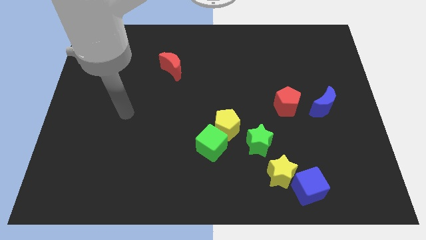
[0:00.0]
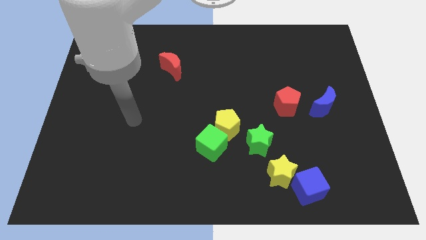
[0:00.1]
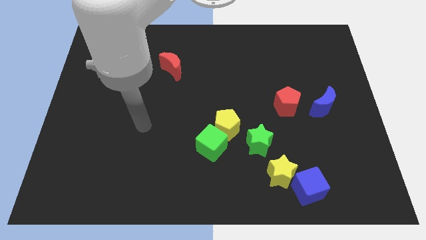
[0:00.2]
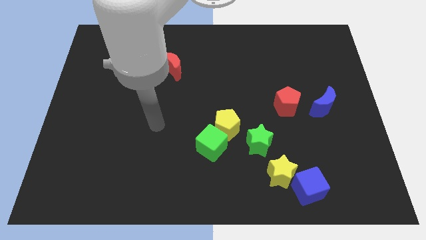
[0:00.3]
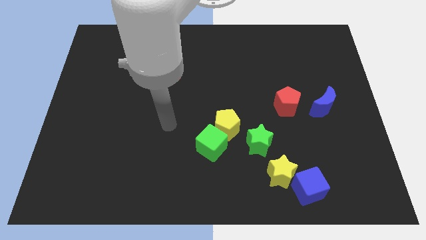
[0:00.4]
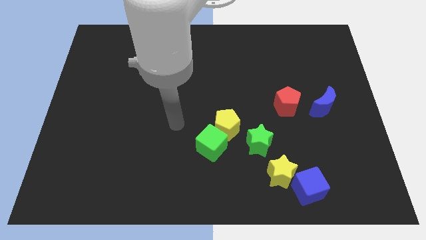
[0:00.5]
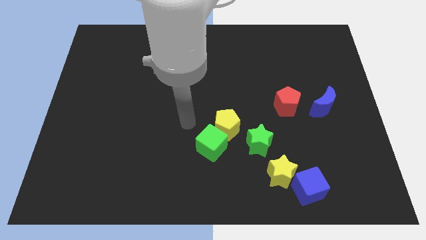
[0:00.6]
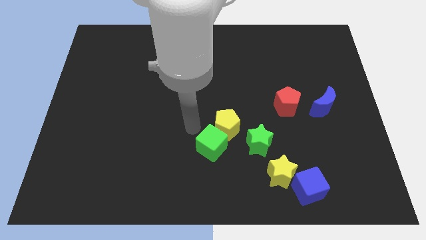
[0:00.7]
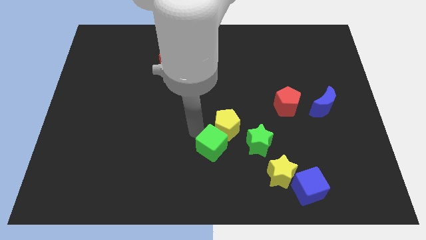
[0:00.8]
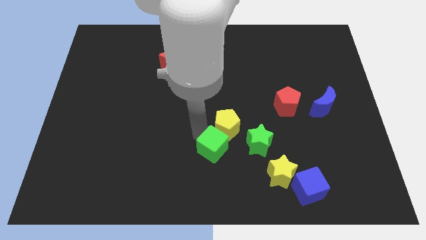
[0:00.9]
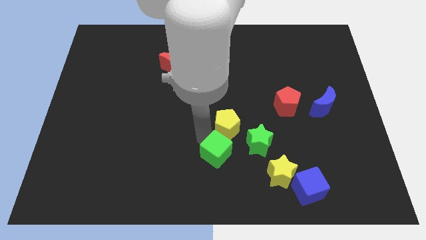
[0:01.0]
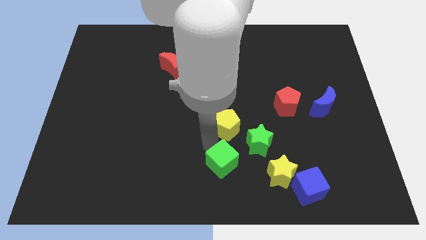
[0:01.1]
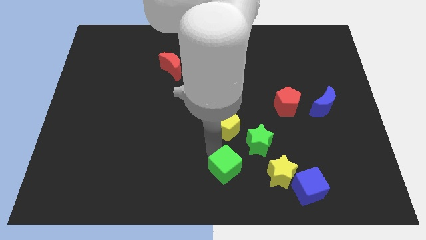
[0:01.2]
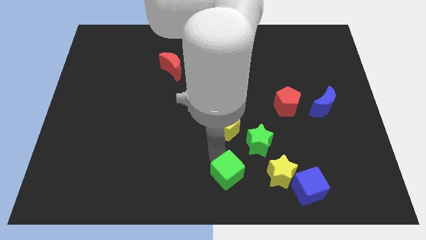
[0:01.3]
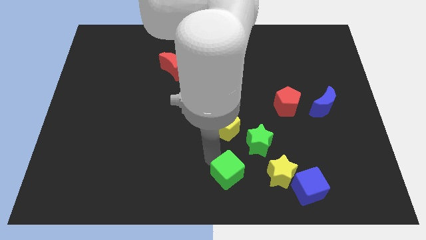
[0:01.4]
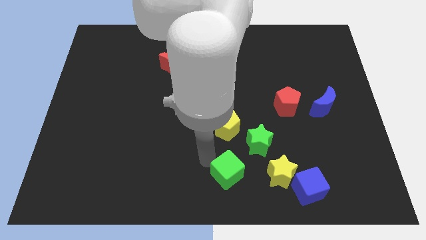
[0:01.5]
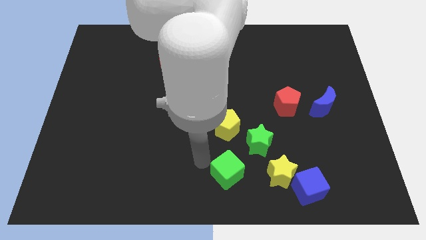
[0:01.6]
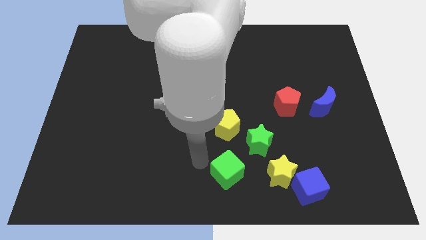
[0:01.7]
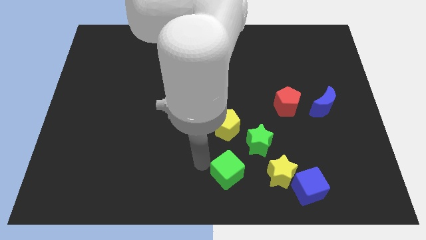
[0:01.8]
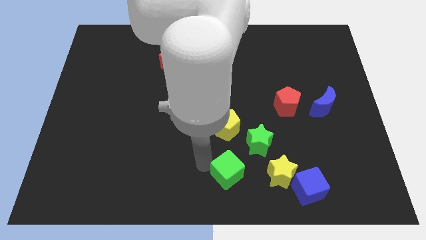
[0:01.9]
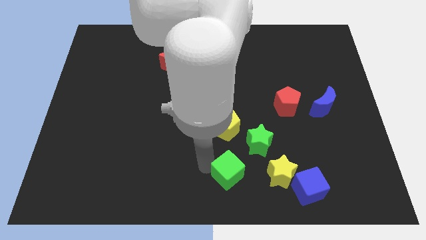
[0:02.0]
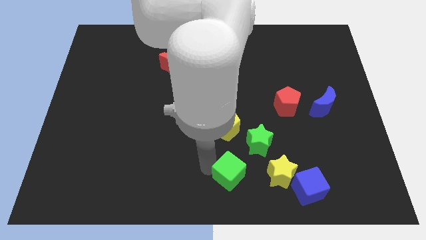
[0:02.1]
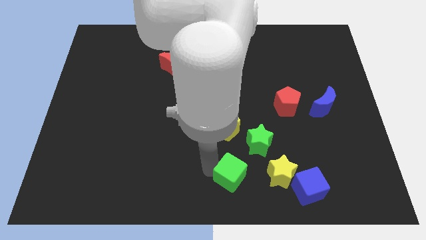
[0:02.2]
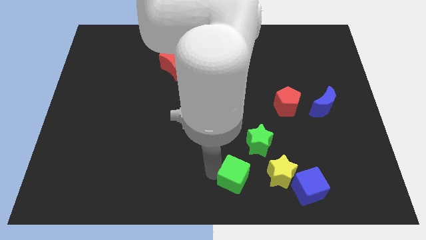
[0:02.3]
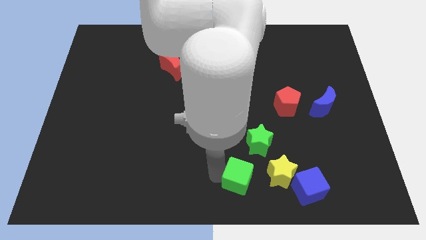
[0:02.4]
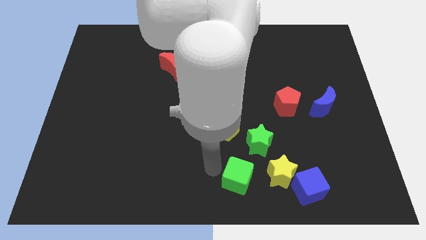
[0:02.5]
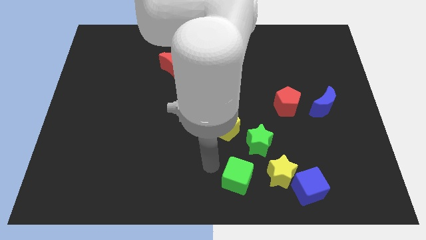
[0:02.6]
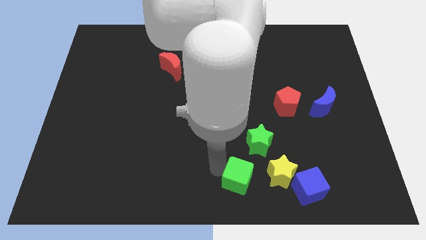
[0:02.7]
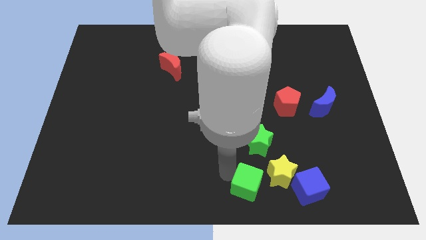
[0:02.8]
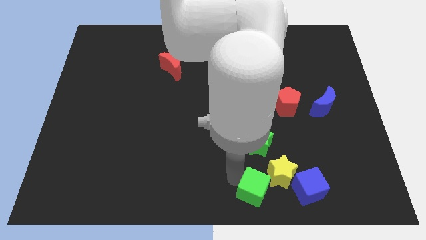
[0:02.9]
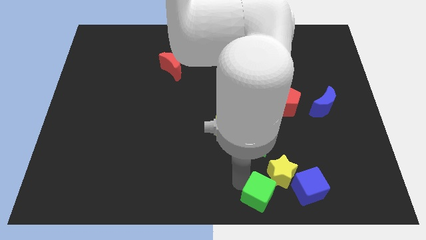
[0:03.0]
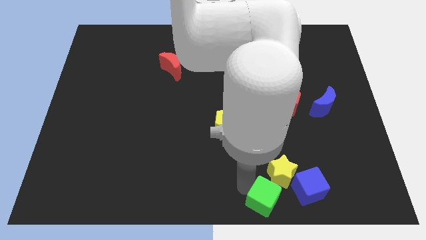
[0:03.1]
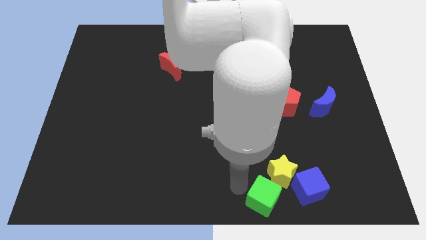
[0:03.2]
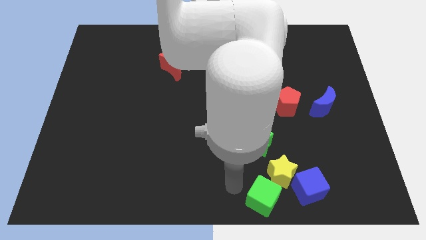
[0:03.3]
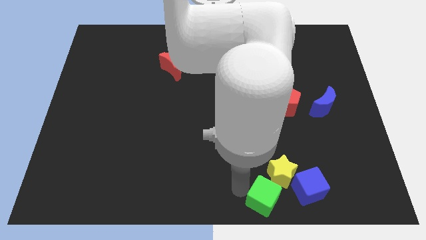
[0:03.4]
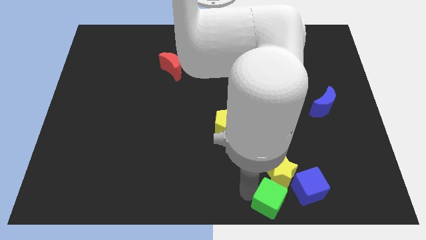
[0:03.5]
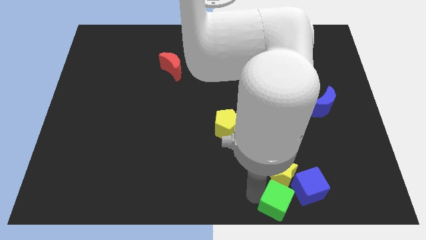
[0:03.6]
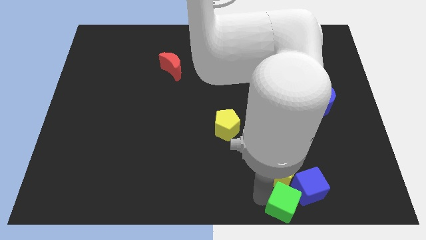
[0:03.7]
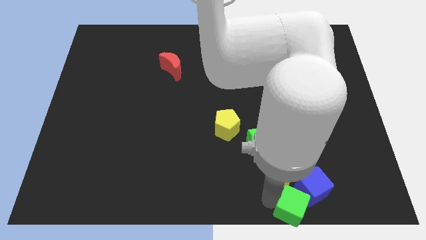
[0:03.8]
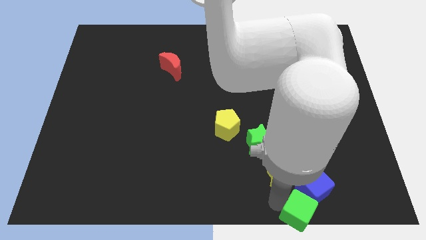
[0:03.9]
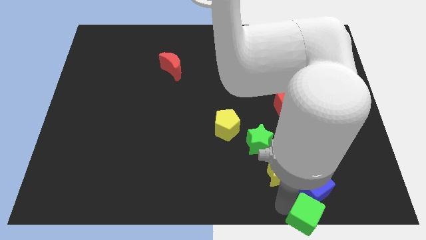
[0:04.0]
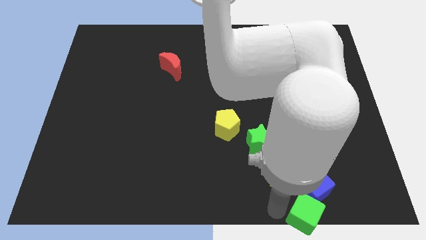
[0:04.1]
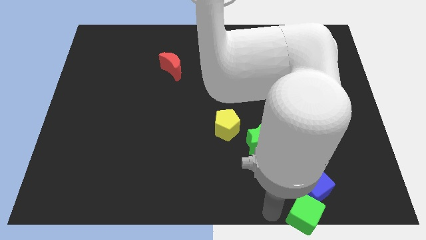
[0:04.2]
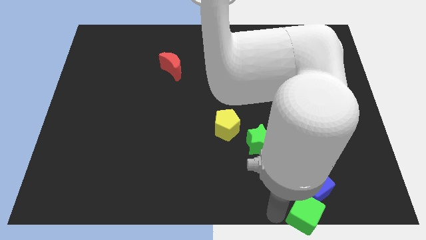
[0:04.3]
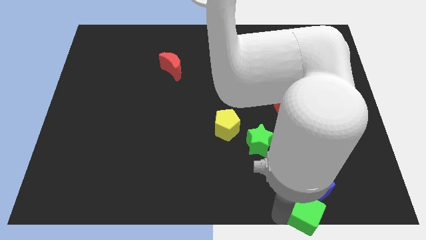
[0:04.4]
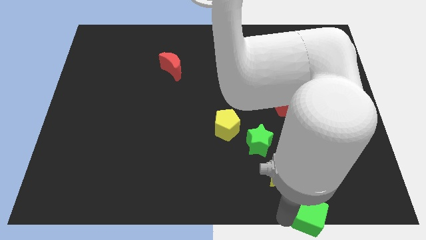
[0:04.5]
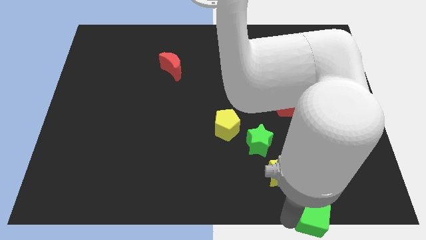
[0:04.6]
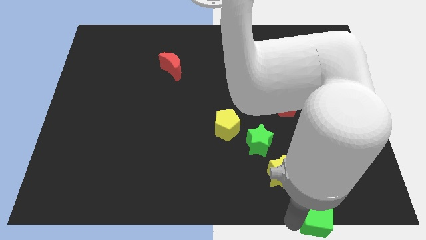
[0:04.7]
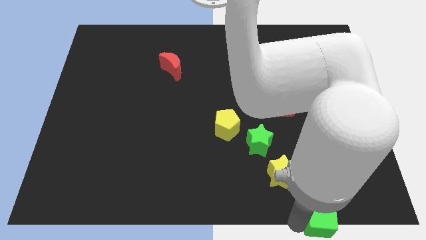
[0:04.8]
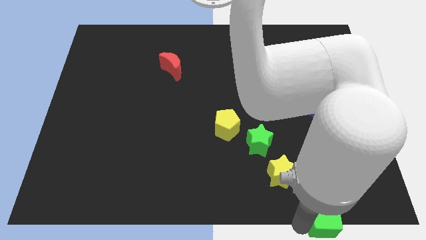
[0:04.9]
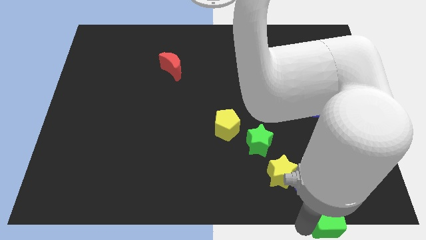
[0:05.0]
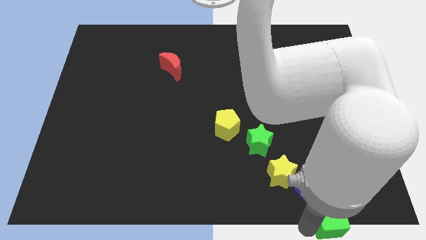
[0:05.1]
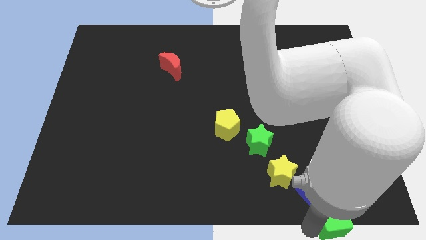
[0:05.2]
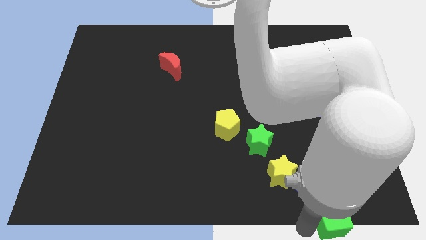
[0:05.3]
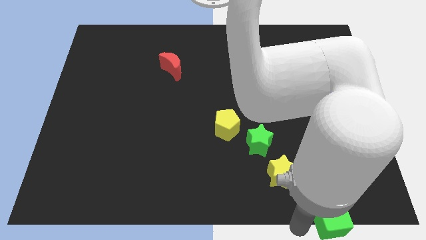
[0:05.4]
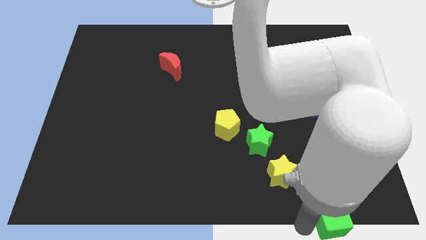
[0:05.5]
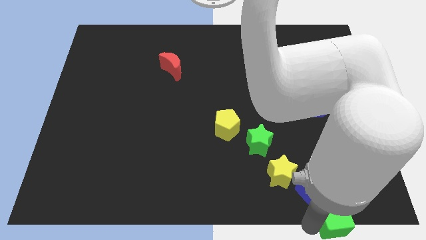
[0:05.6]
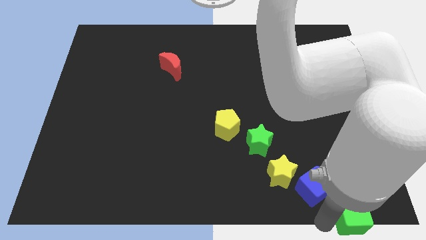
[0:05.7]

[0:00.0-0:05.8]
put the green cube to the bottom right of the board
